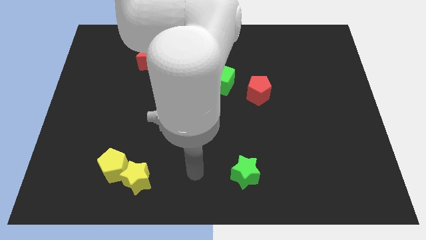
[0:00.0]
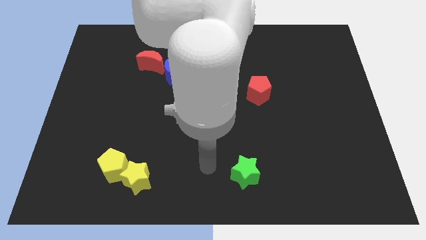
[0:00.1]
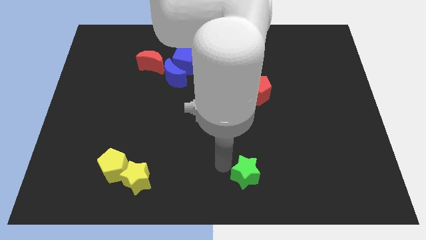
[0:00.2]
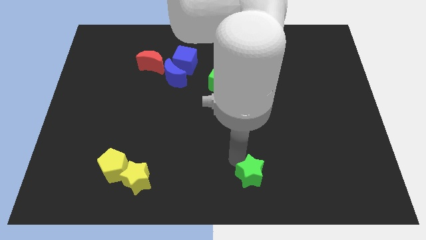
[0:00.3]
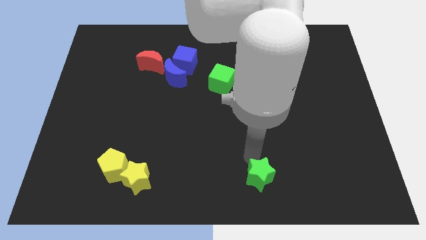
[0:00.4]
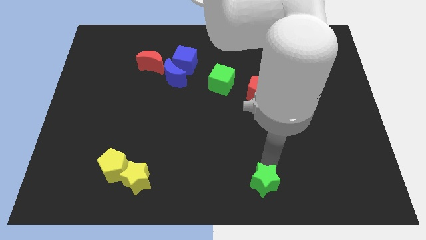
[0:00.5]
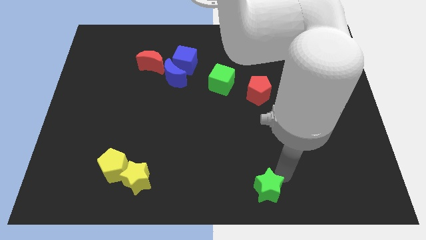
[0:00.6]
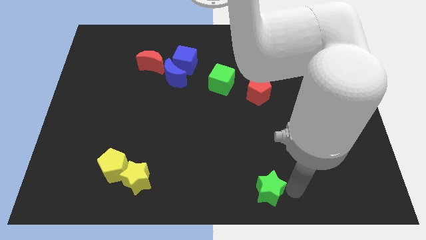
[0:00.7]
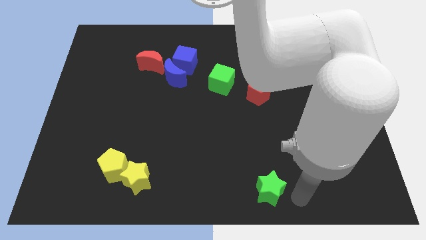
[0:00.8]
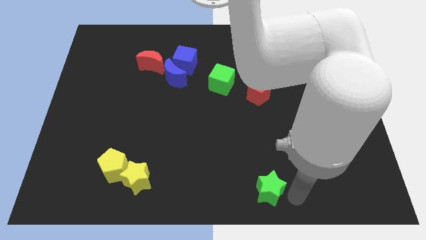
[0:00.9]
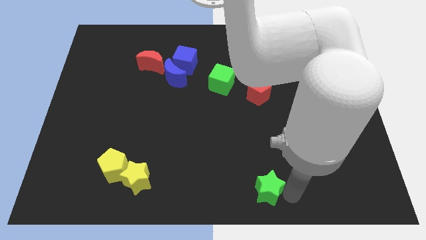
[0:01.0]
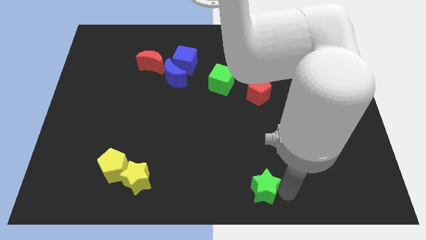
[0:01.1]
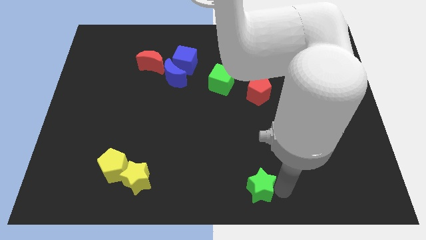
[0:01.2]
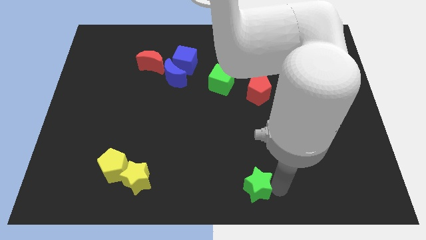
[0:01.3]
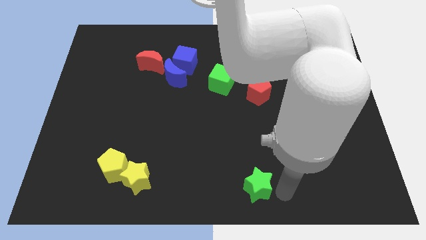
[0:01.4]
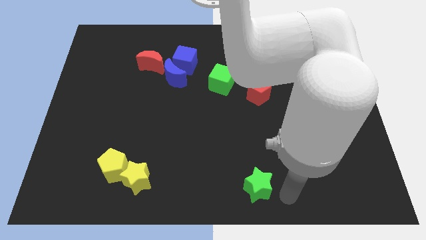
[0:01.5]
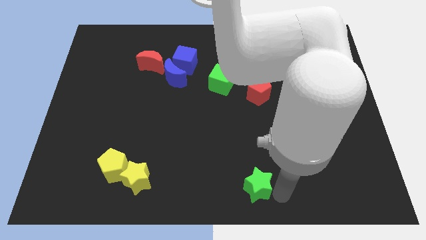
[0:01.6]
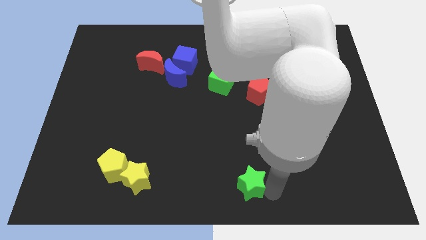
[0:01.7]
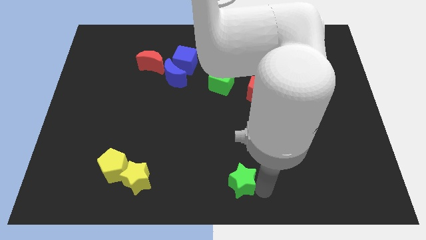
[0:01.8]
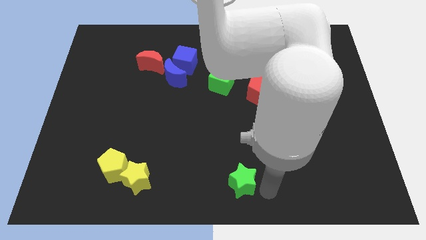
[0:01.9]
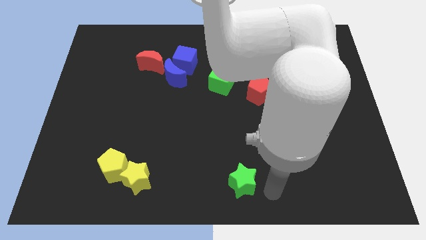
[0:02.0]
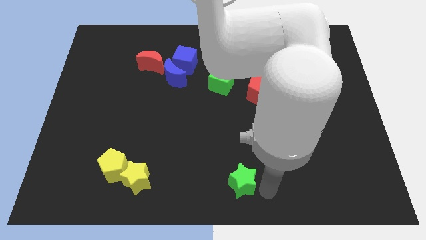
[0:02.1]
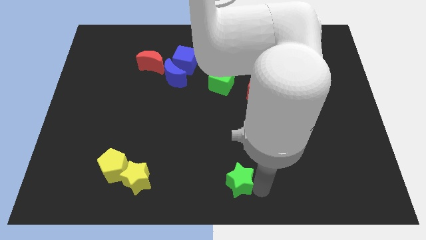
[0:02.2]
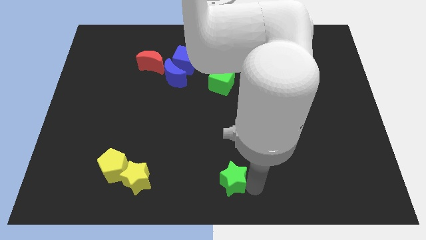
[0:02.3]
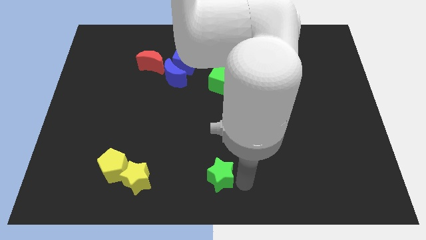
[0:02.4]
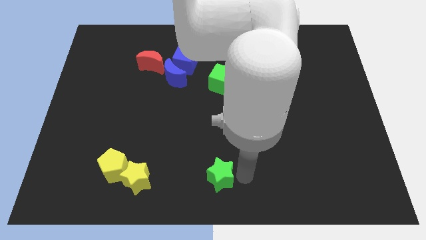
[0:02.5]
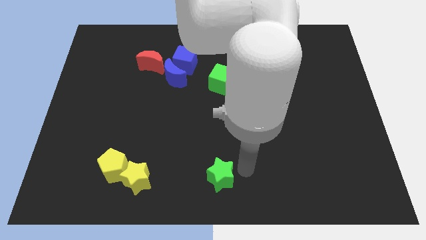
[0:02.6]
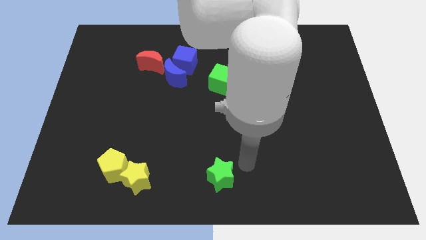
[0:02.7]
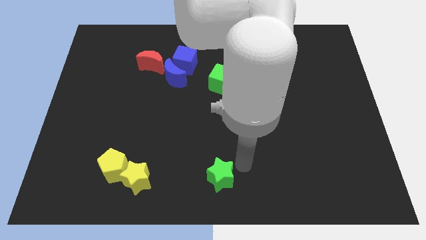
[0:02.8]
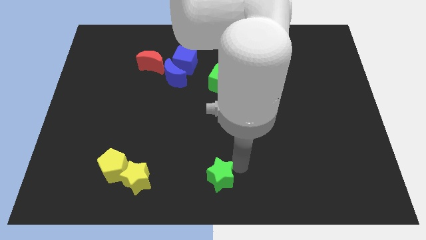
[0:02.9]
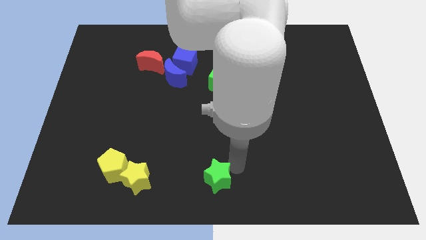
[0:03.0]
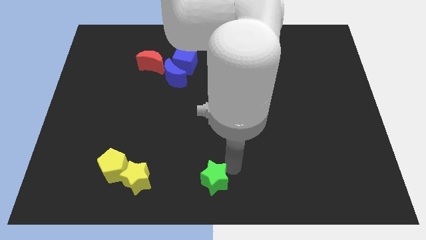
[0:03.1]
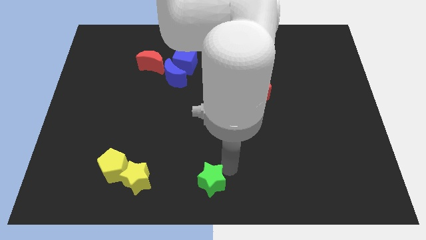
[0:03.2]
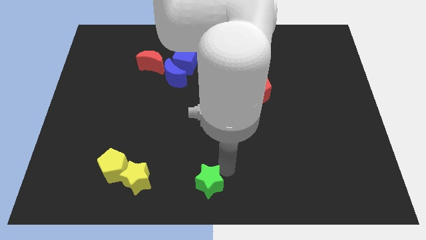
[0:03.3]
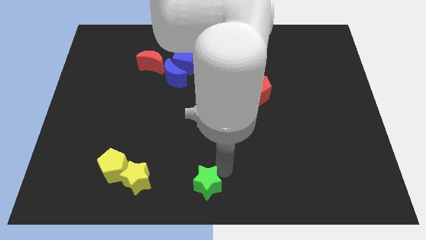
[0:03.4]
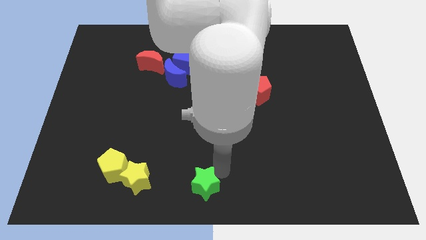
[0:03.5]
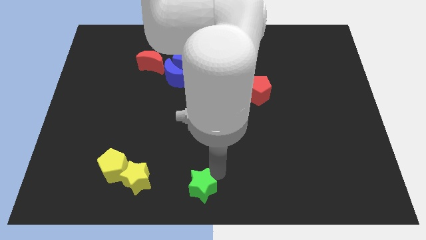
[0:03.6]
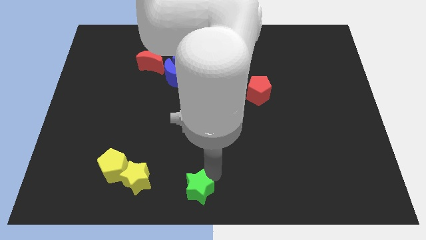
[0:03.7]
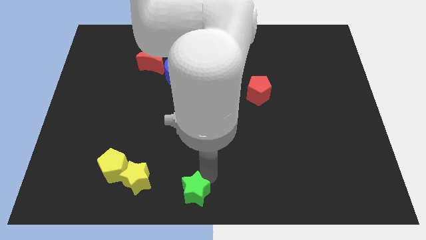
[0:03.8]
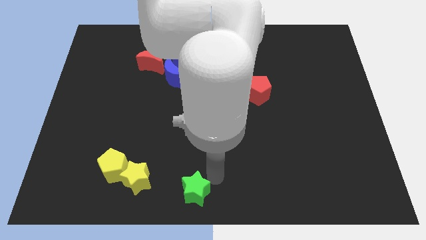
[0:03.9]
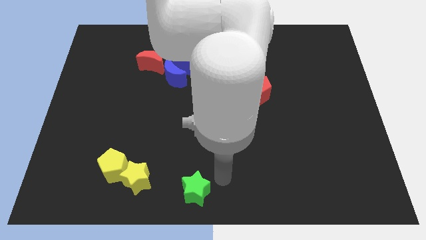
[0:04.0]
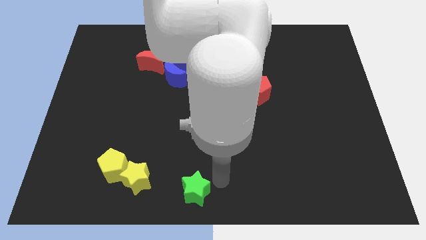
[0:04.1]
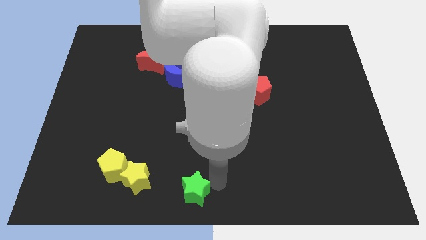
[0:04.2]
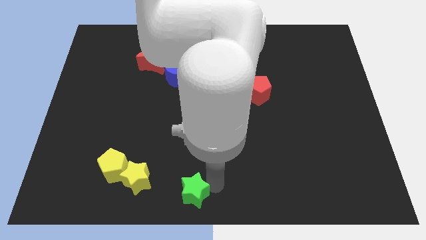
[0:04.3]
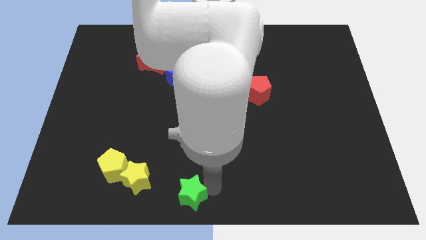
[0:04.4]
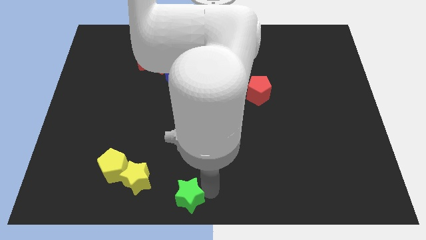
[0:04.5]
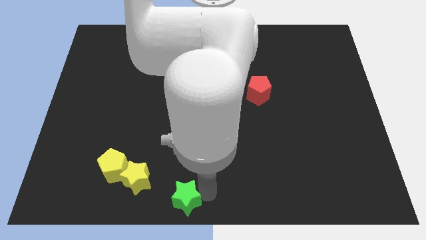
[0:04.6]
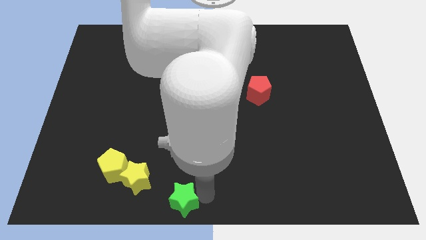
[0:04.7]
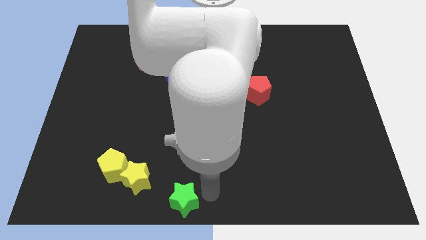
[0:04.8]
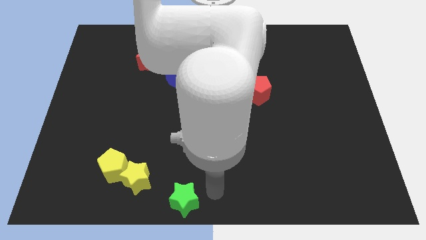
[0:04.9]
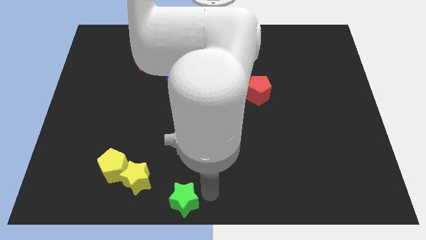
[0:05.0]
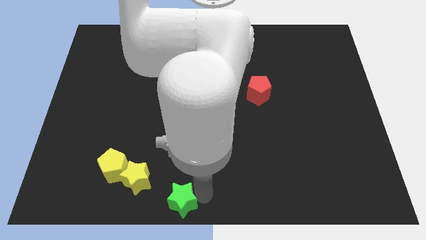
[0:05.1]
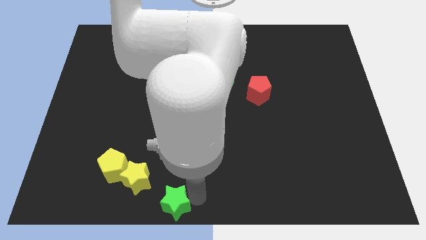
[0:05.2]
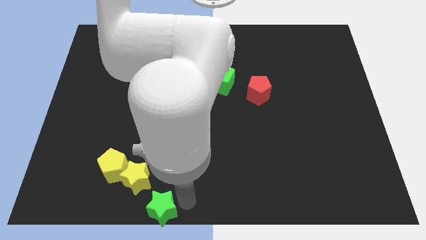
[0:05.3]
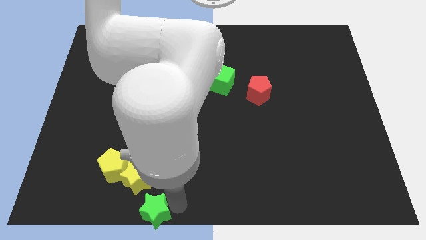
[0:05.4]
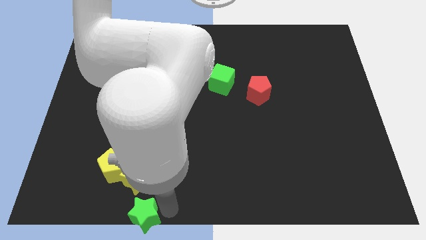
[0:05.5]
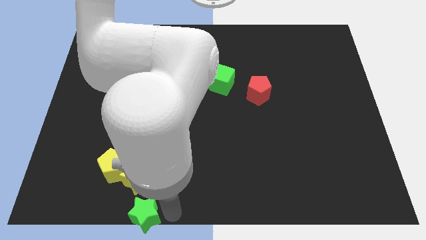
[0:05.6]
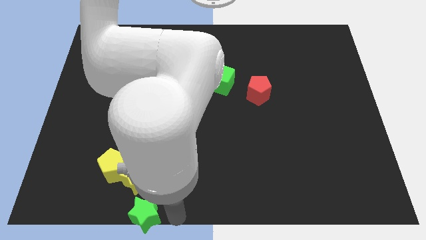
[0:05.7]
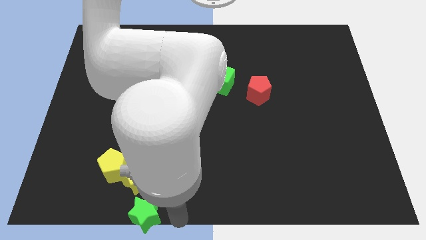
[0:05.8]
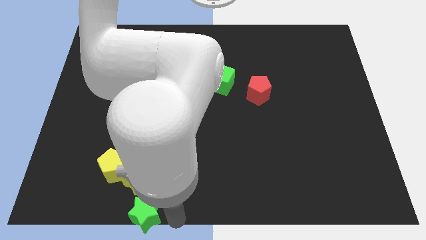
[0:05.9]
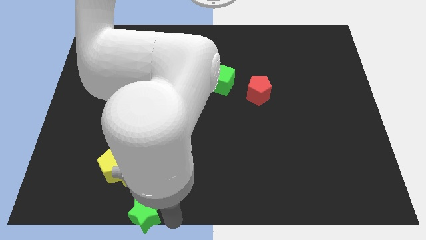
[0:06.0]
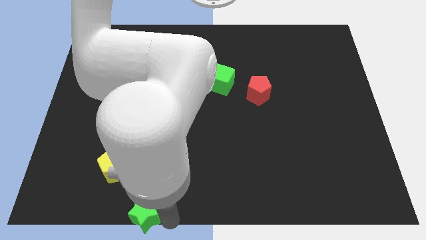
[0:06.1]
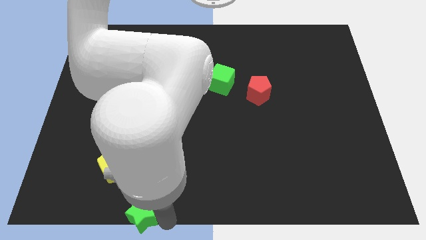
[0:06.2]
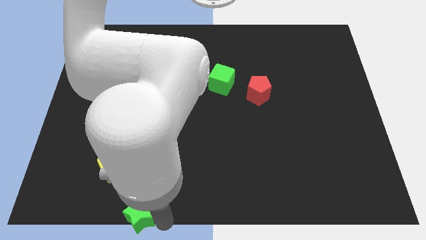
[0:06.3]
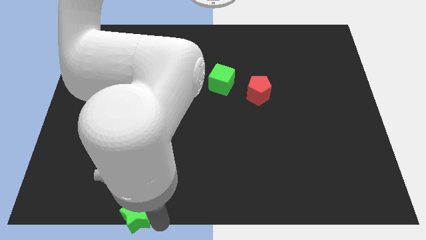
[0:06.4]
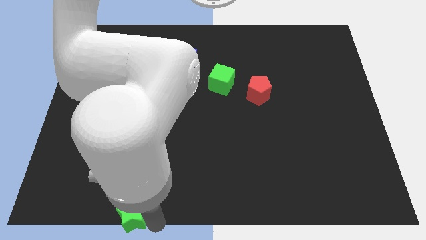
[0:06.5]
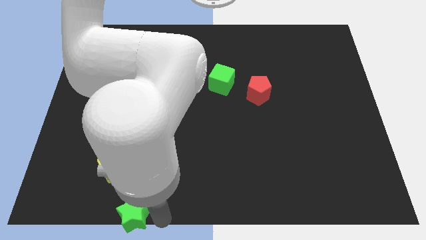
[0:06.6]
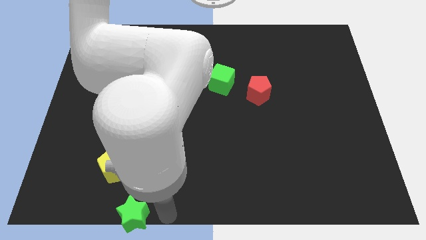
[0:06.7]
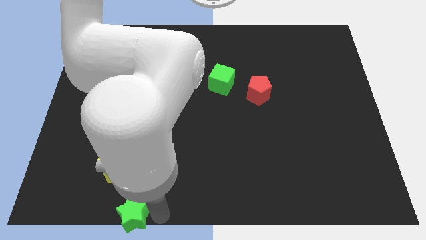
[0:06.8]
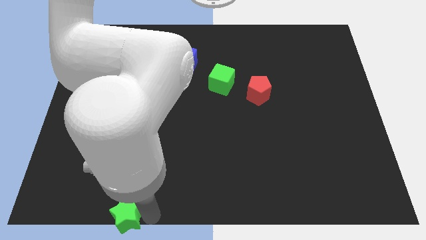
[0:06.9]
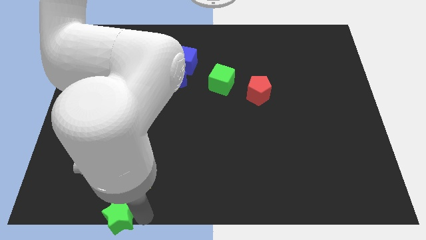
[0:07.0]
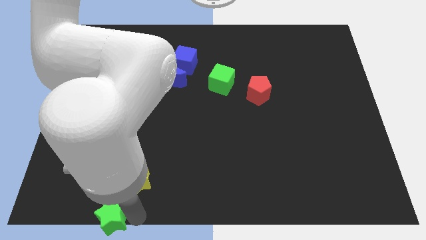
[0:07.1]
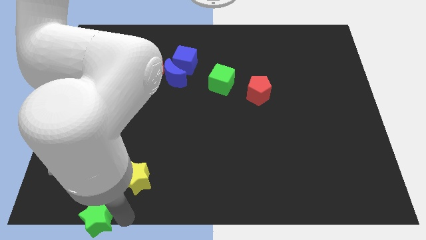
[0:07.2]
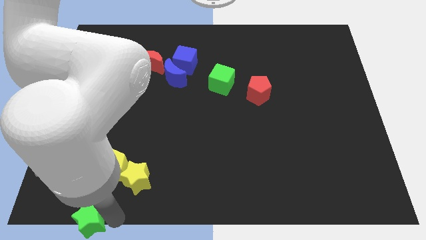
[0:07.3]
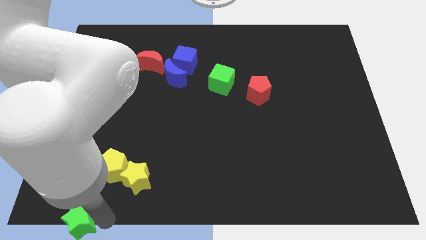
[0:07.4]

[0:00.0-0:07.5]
slide the green star to the lower left corner
